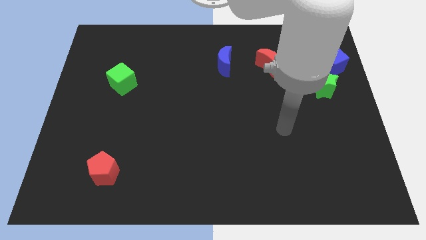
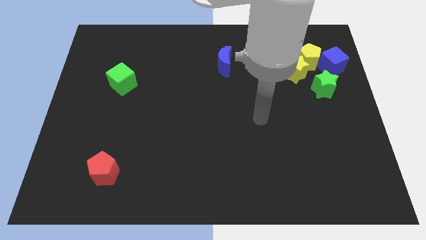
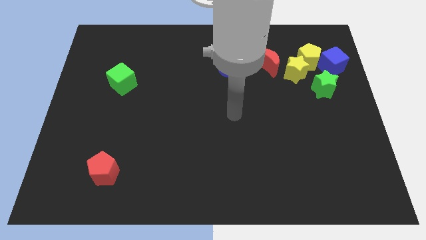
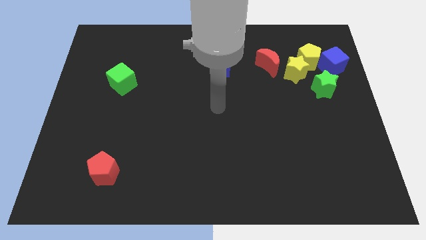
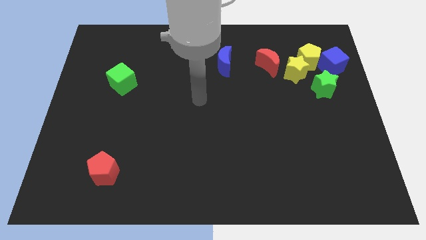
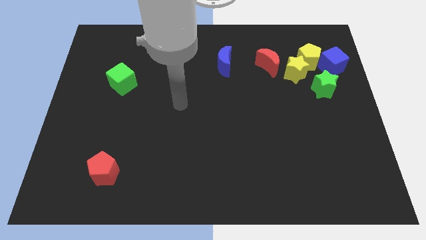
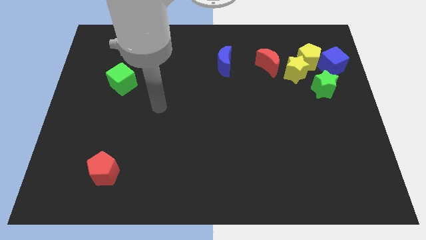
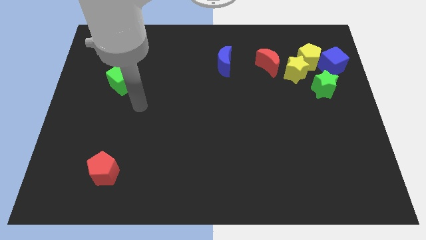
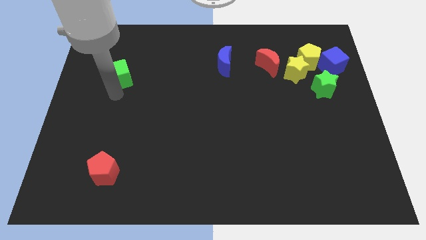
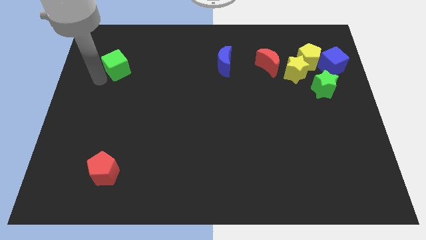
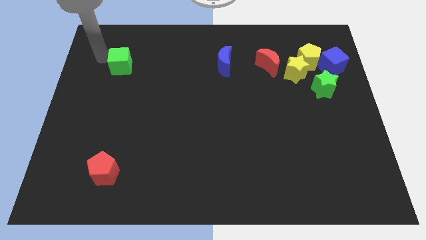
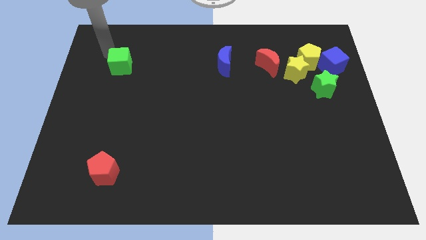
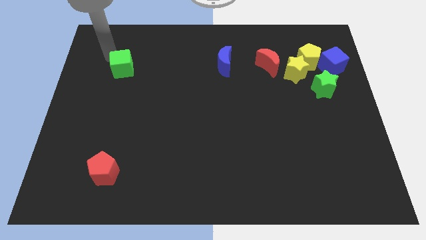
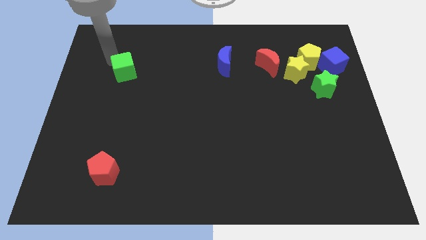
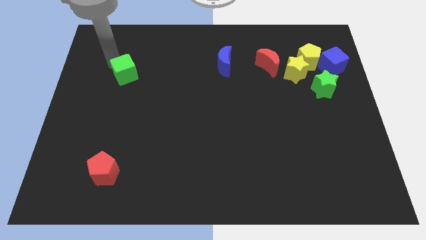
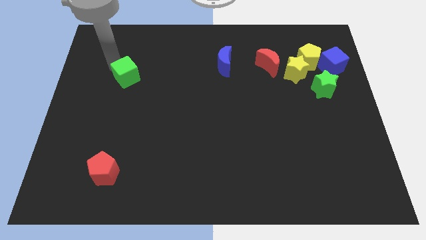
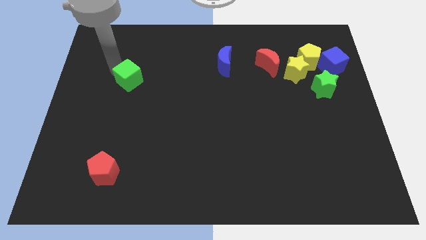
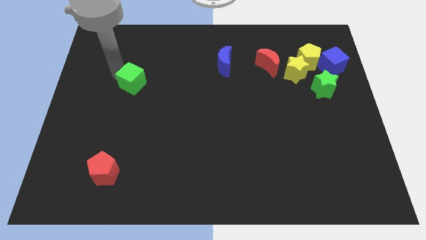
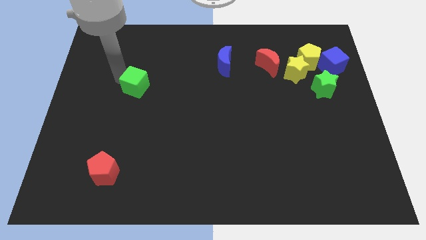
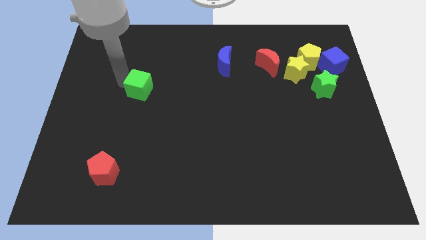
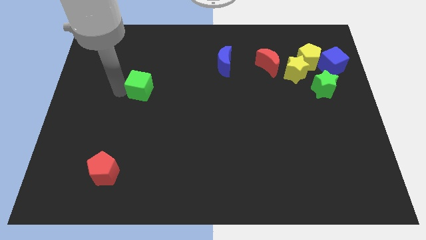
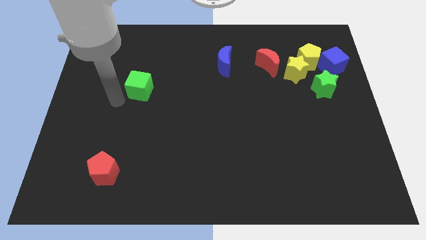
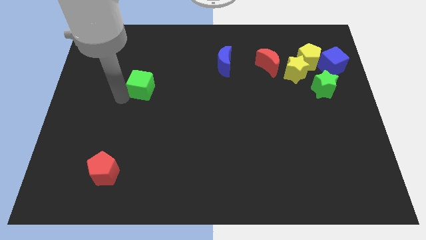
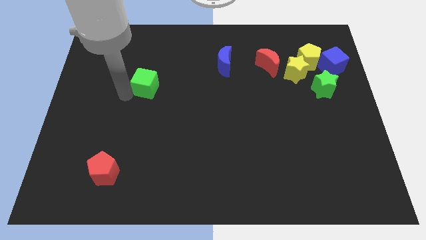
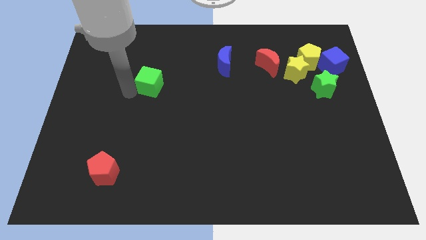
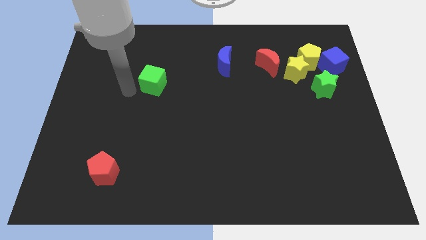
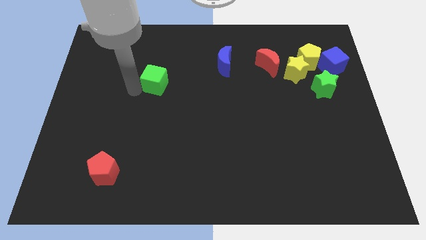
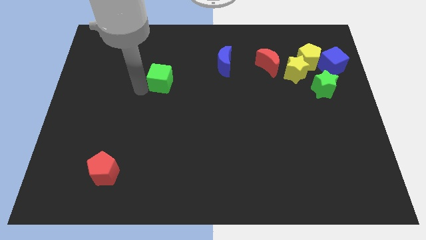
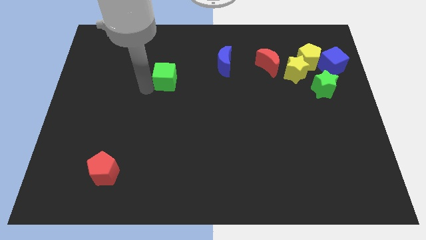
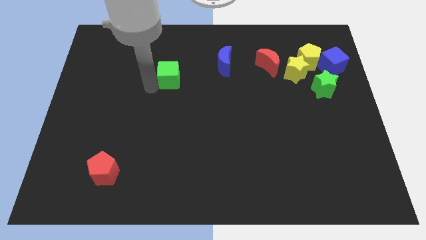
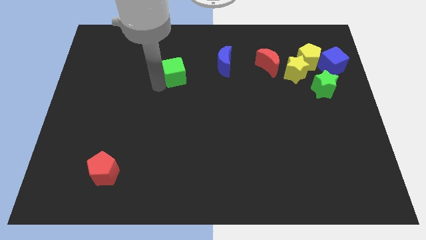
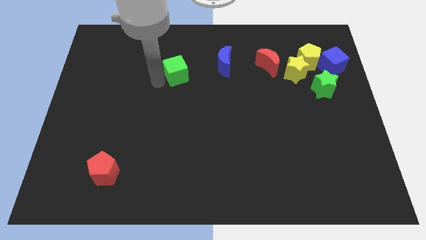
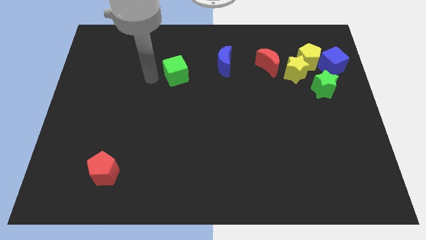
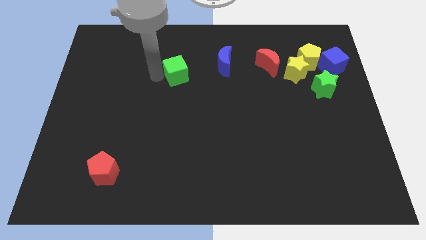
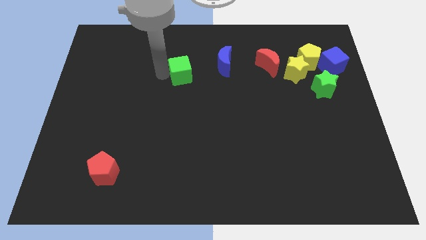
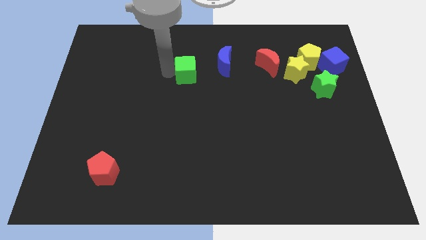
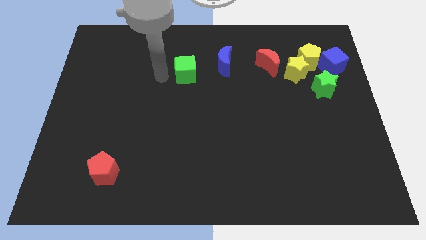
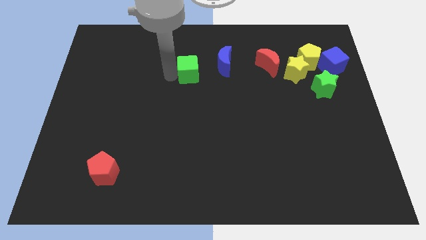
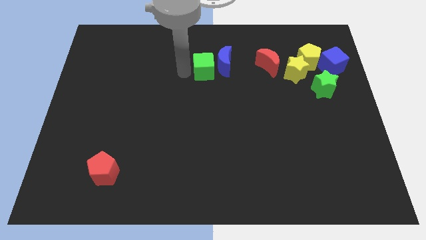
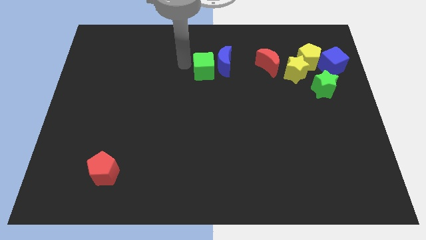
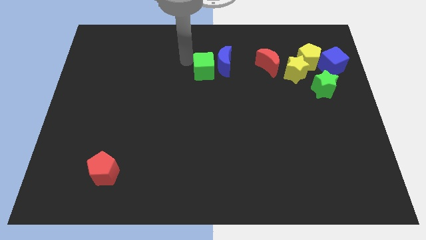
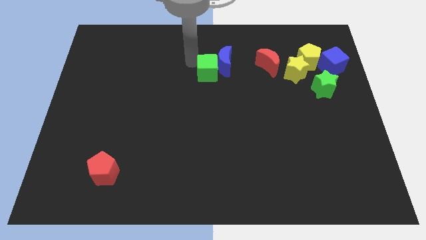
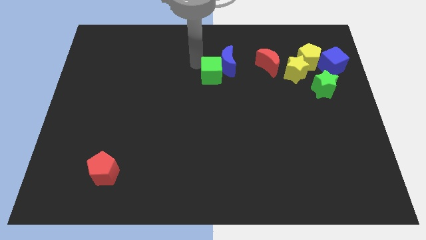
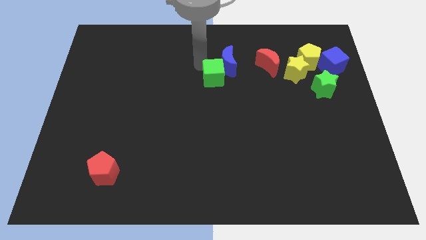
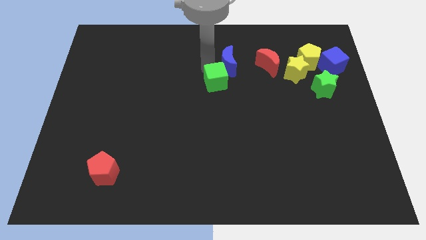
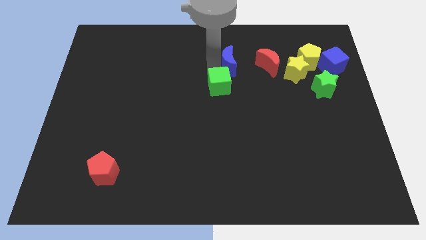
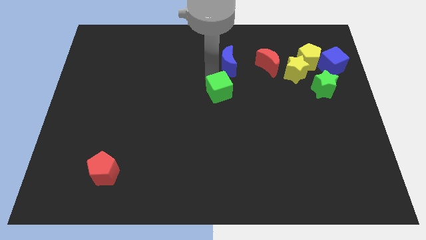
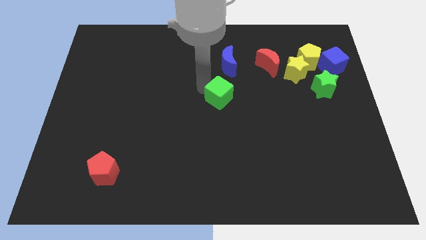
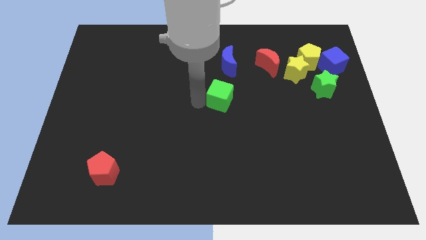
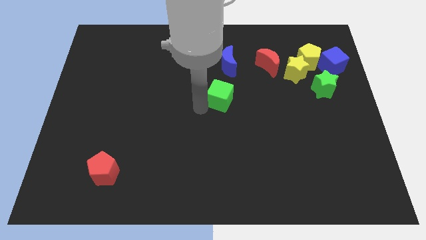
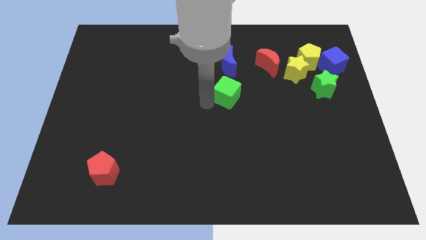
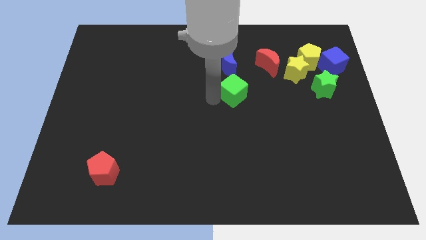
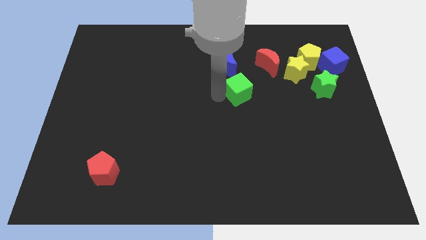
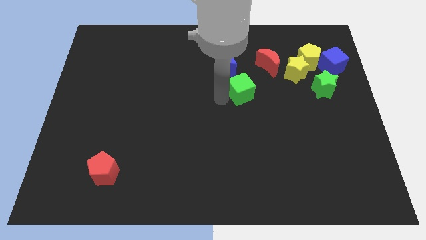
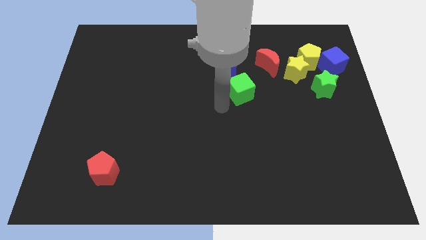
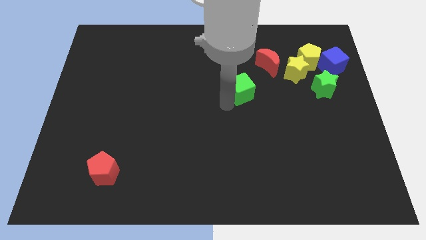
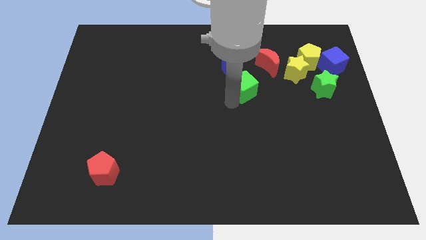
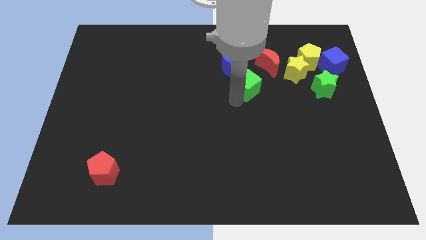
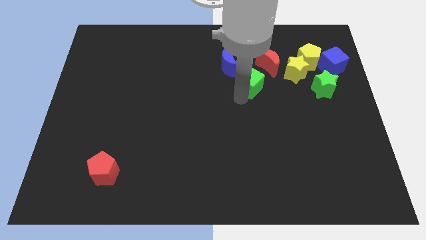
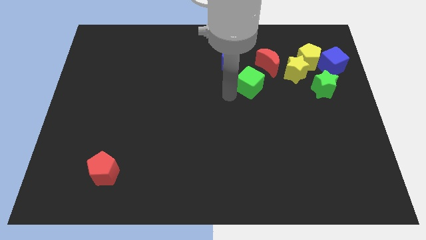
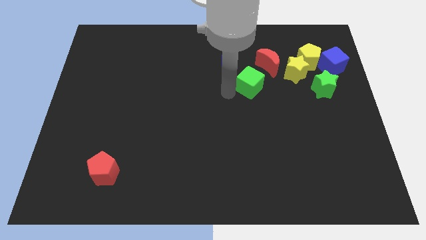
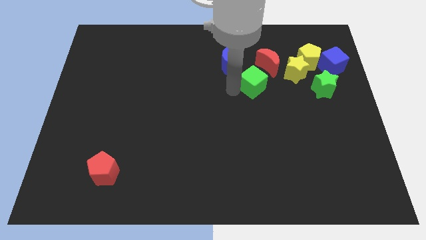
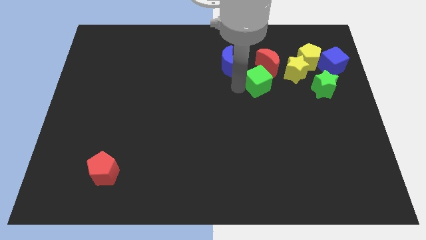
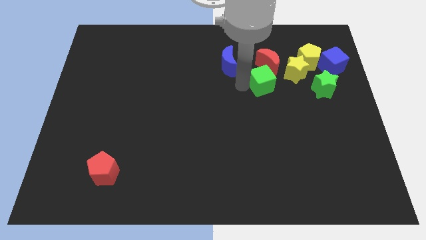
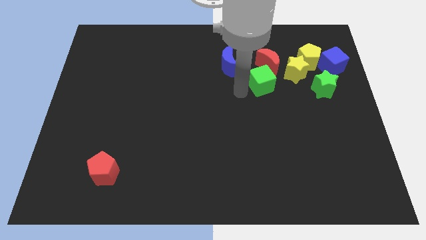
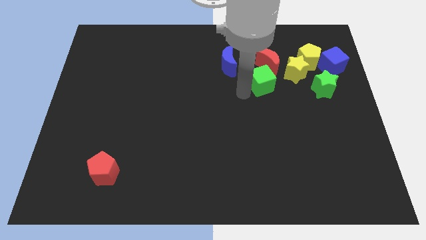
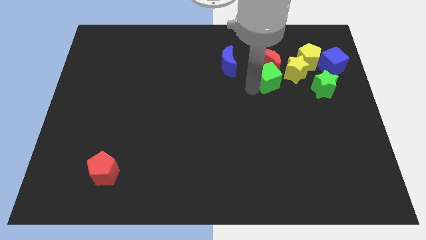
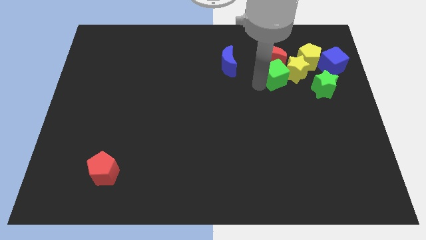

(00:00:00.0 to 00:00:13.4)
slide the green cube to the yellow star
